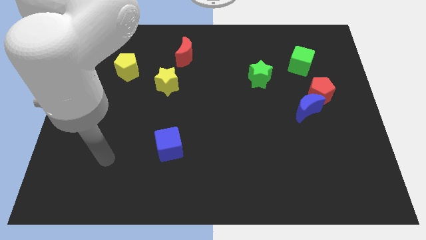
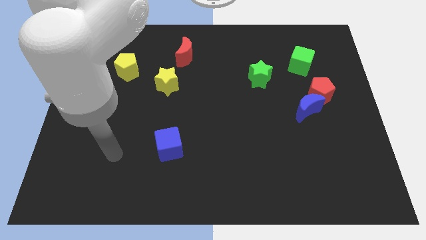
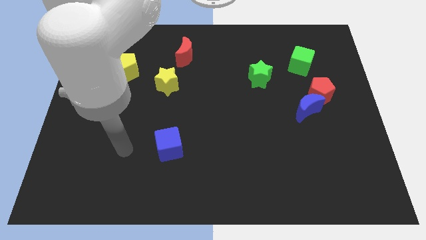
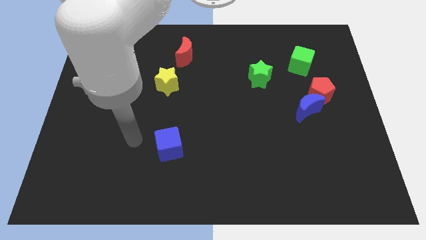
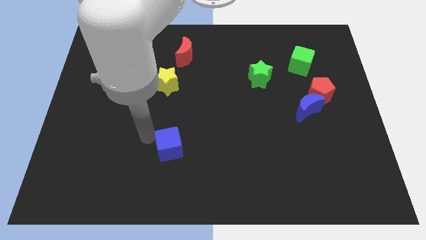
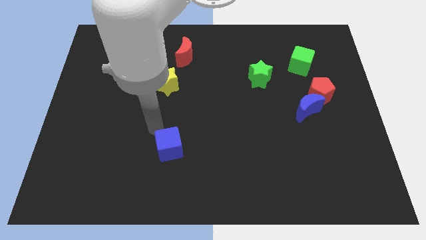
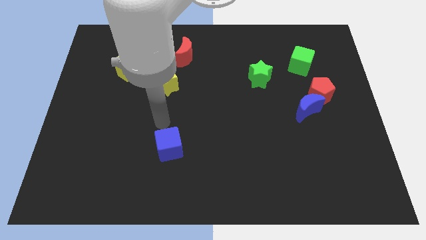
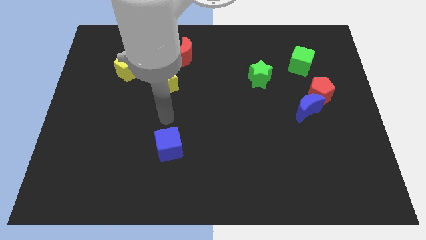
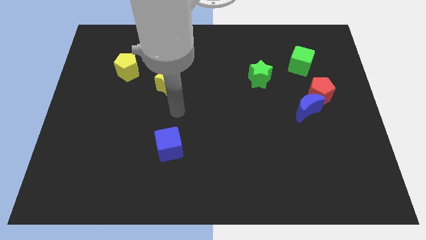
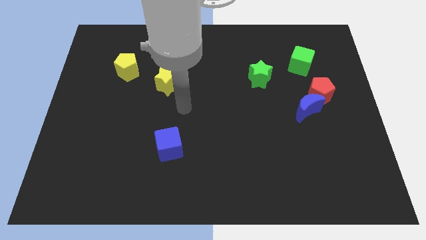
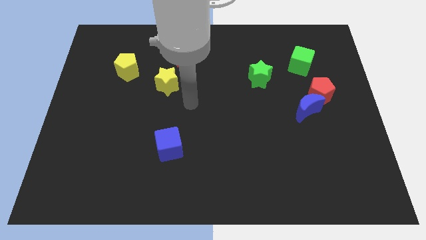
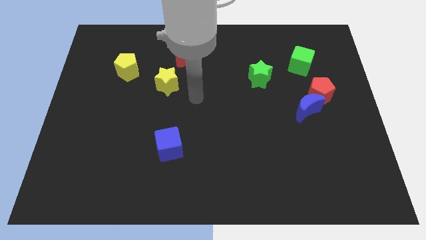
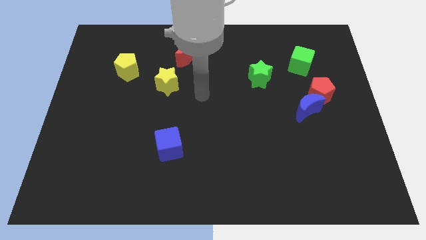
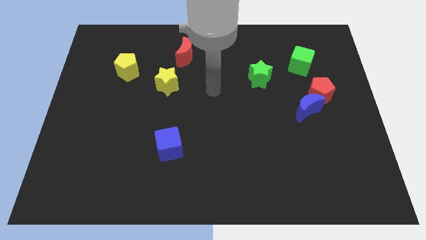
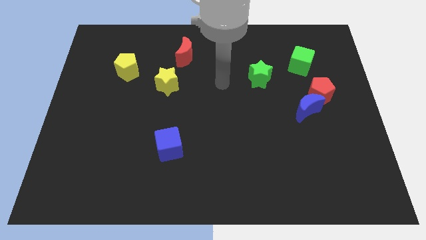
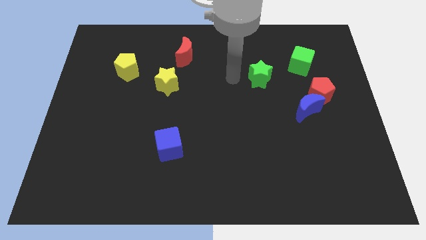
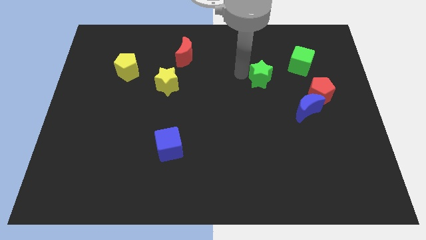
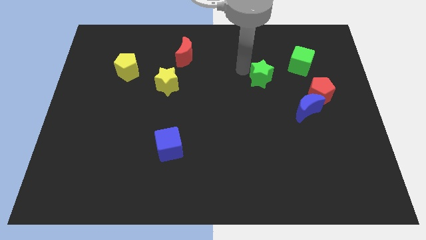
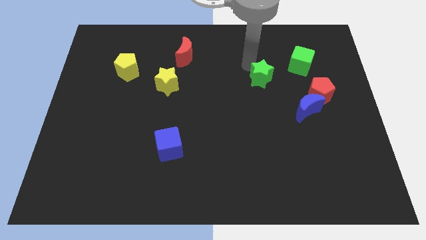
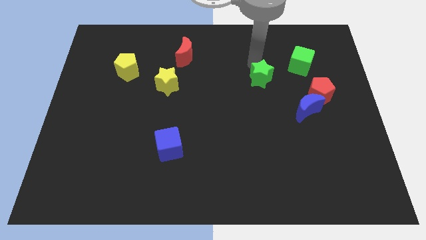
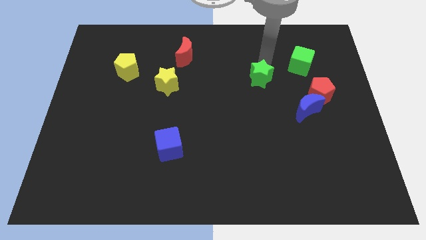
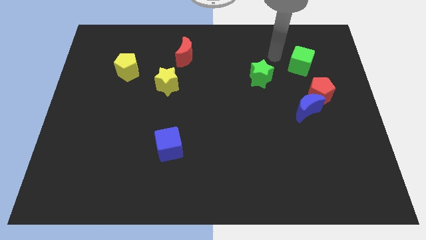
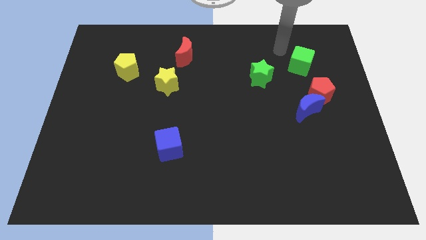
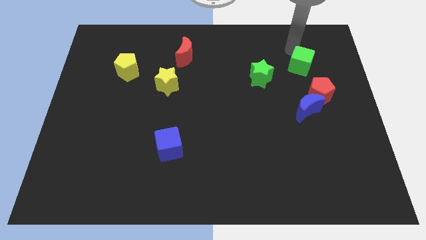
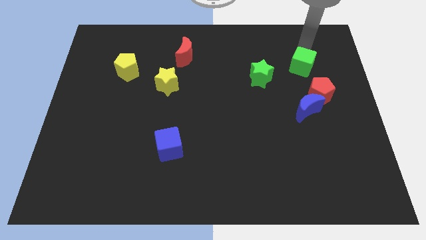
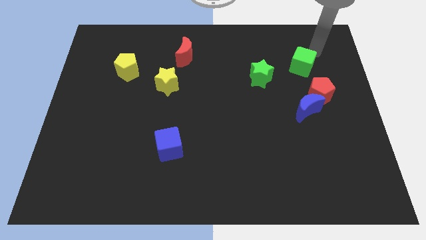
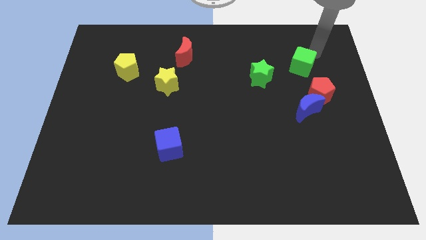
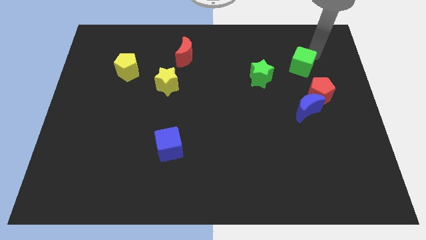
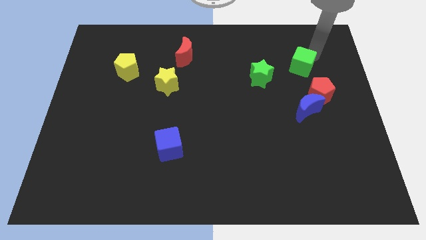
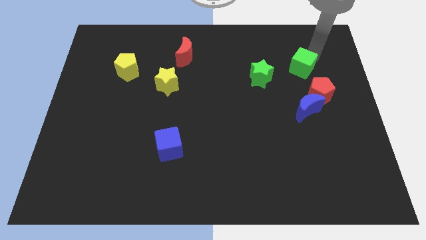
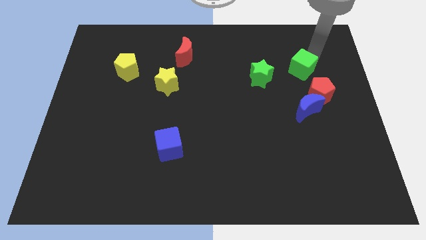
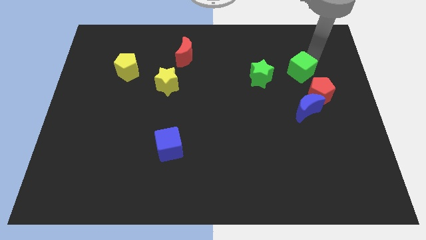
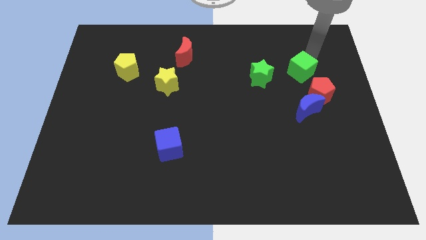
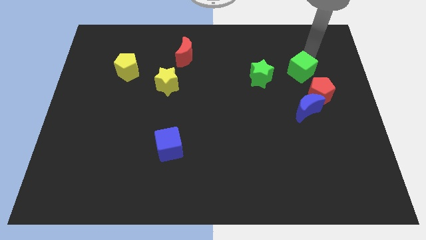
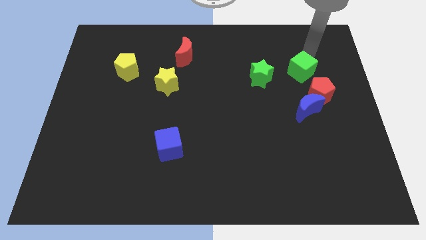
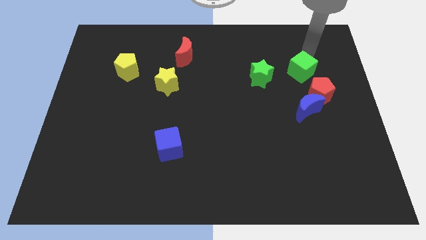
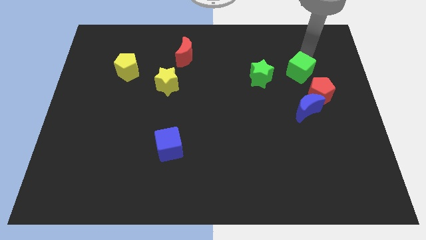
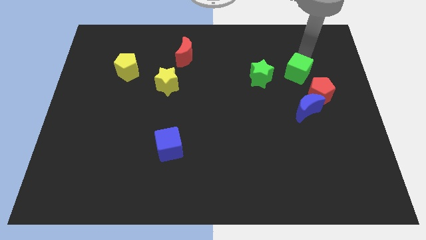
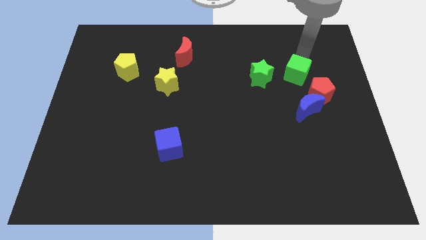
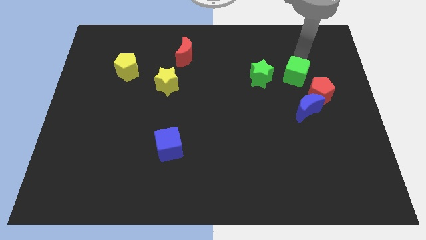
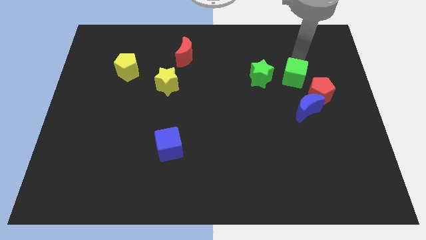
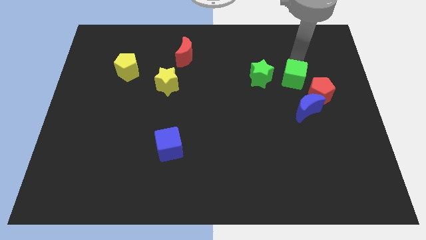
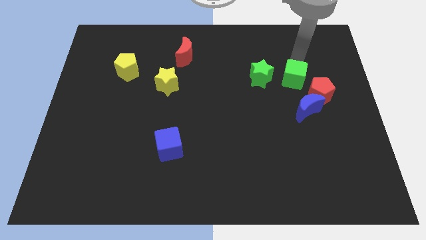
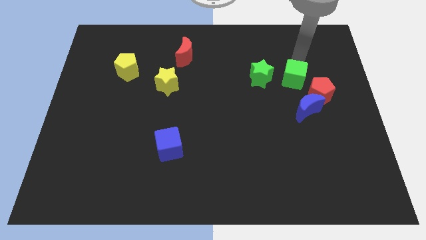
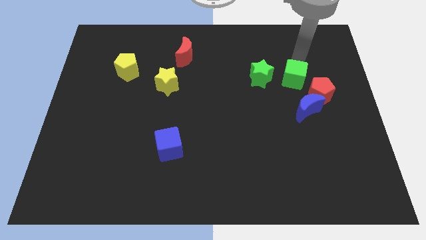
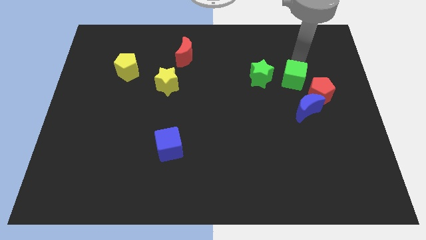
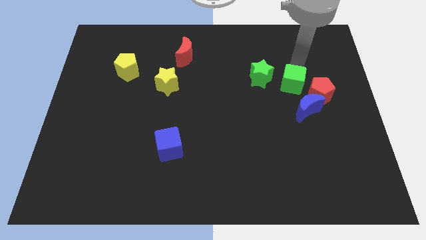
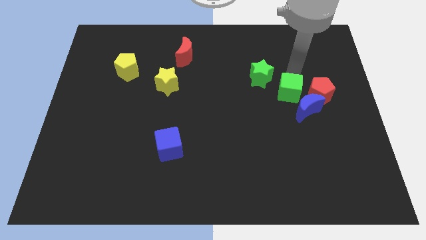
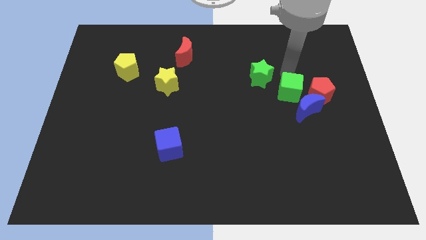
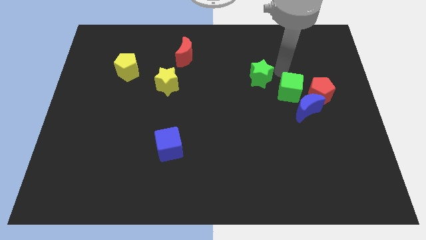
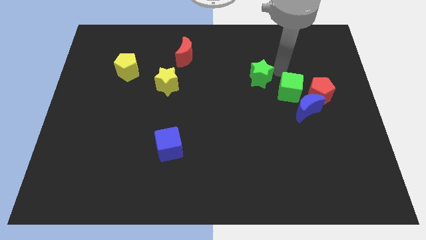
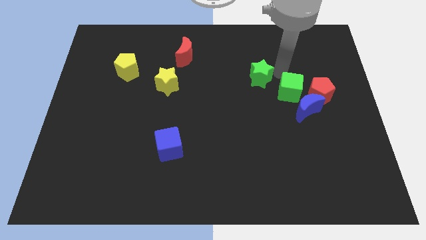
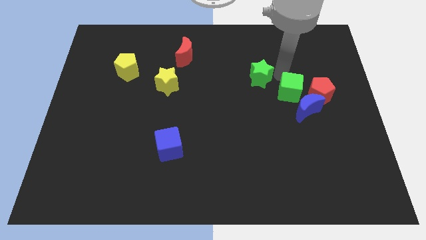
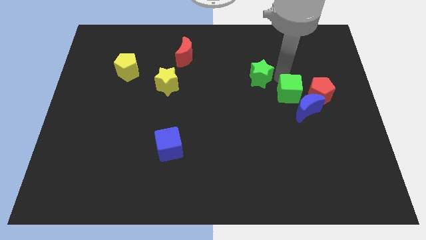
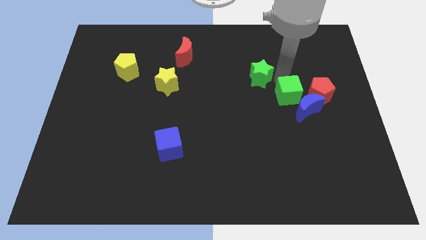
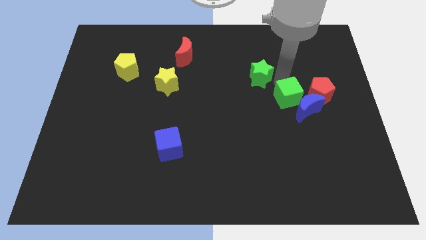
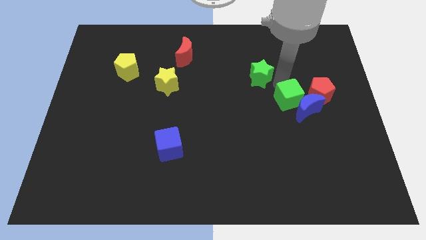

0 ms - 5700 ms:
slide the green cube to the bottom left of the red pentagon

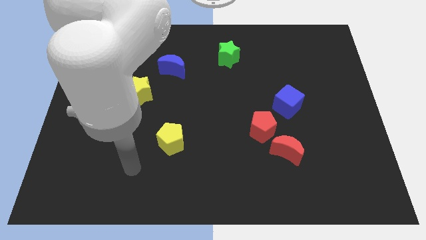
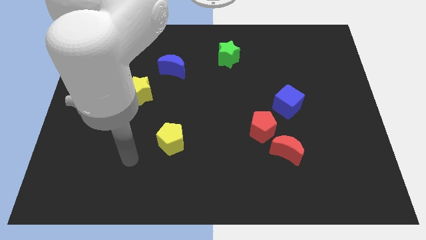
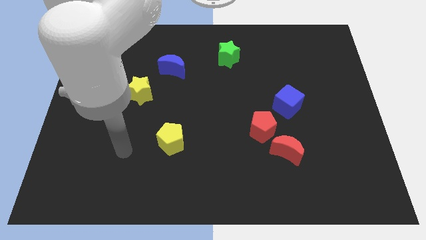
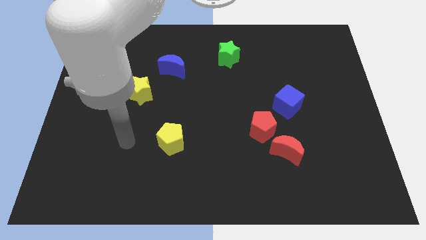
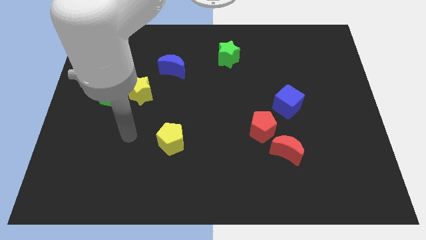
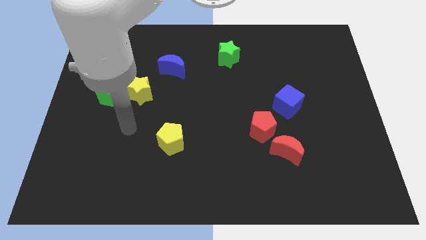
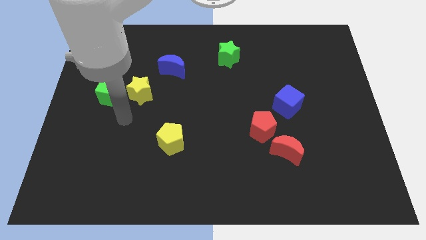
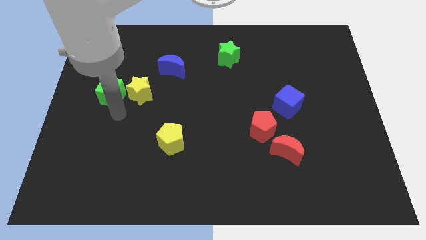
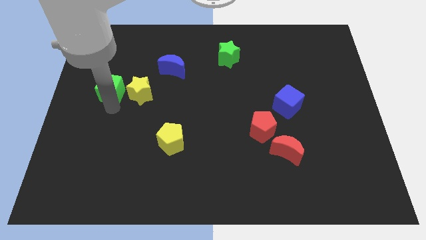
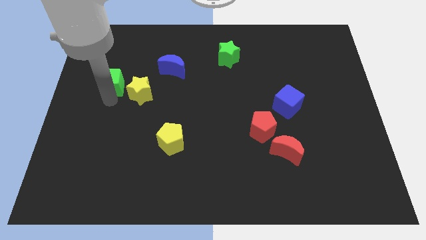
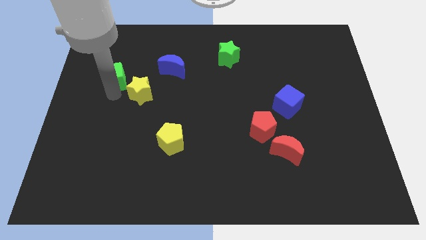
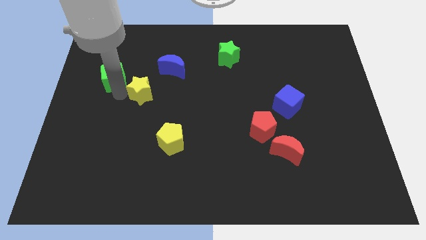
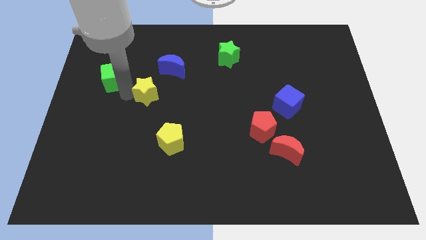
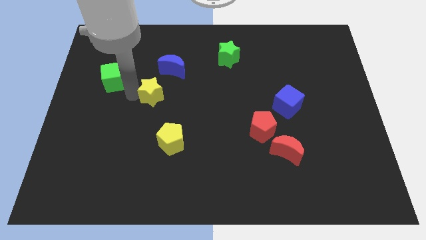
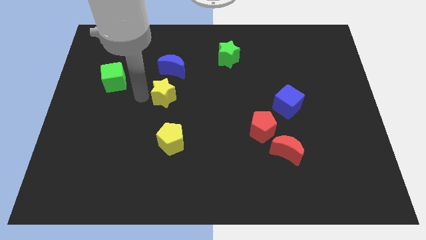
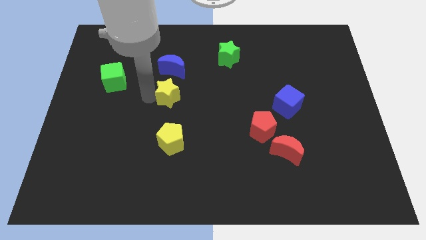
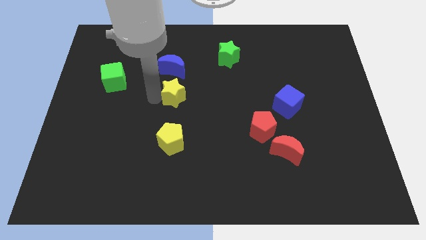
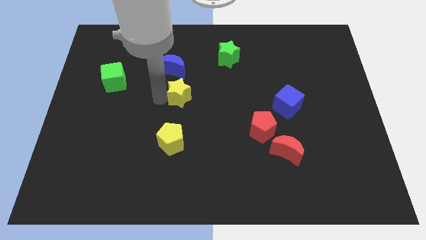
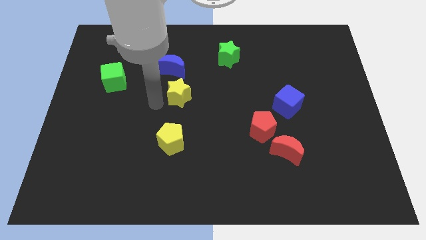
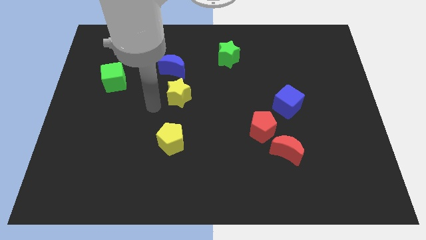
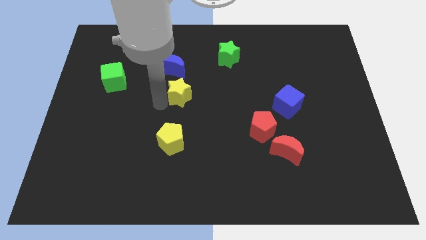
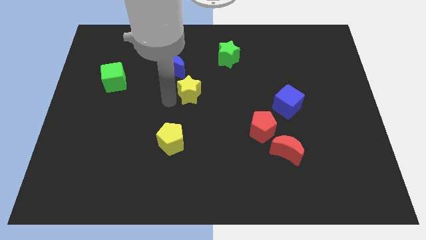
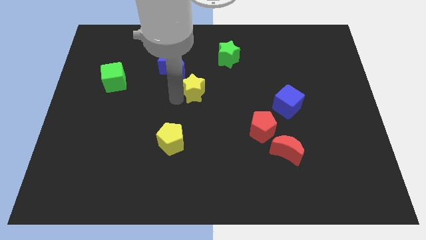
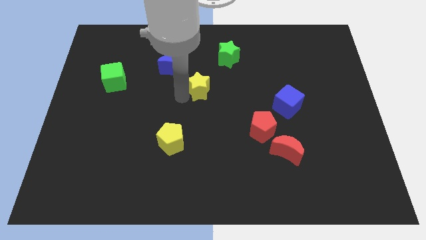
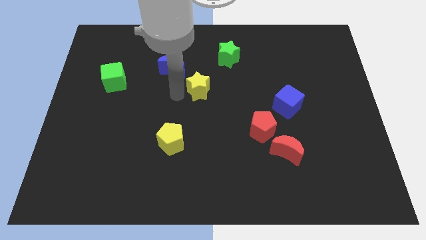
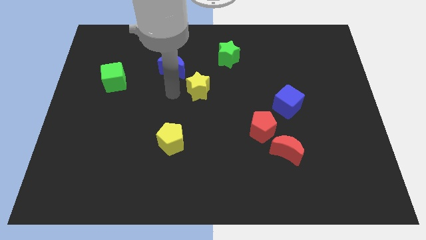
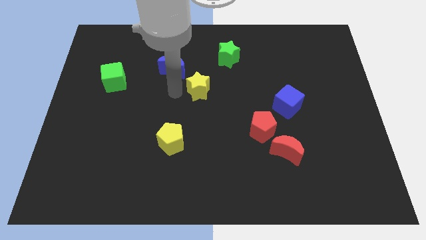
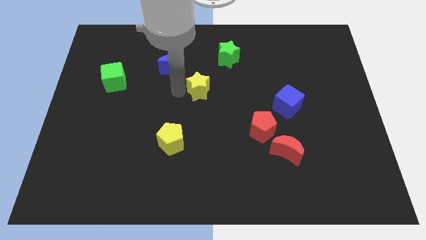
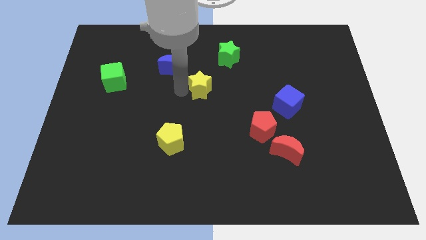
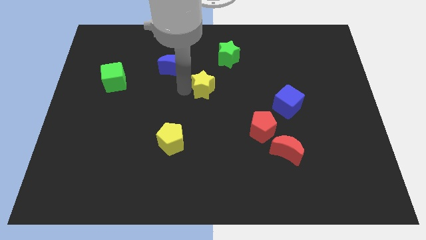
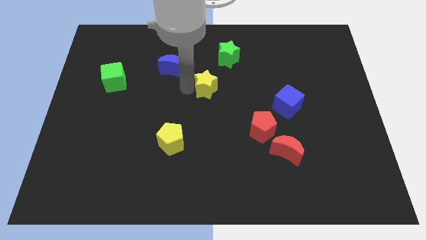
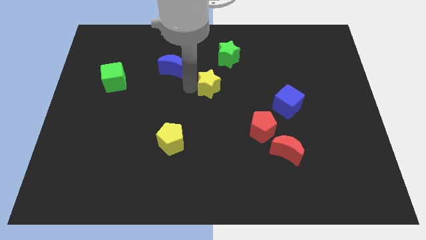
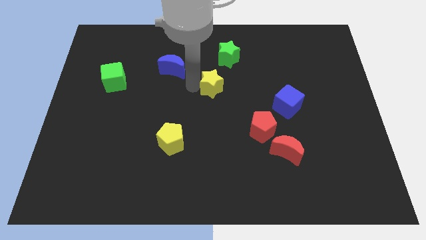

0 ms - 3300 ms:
move the yellow star to the bottom of the green star
